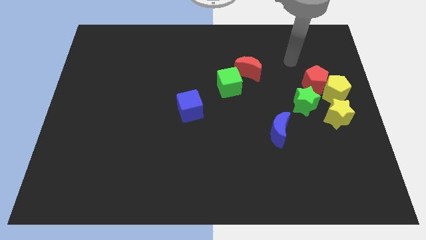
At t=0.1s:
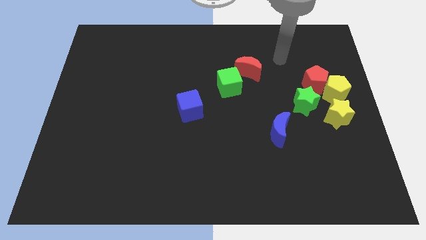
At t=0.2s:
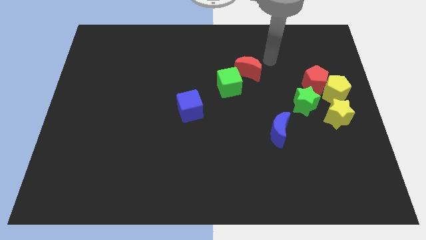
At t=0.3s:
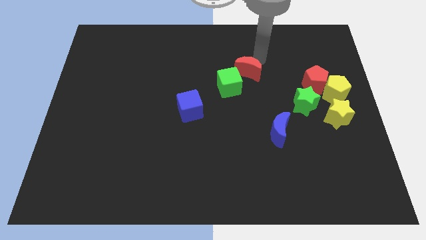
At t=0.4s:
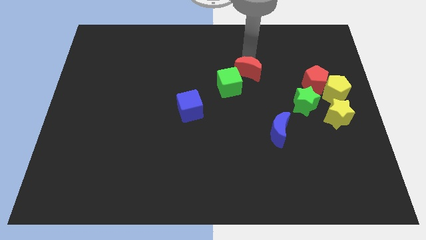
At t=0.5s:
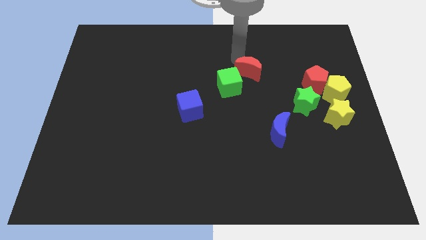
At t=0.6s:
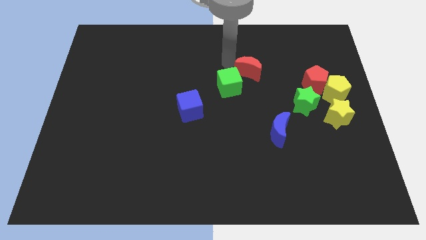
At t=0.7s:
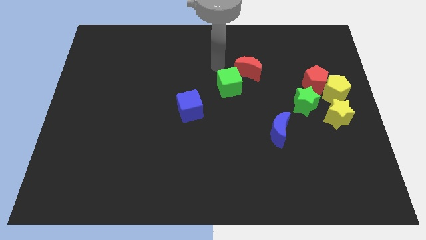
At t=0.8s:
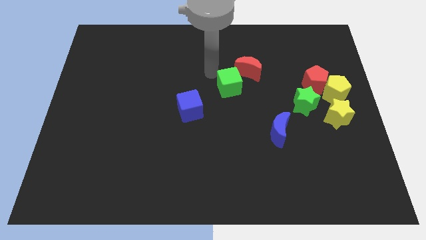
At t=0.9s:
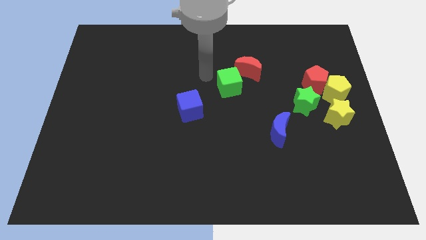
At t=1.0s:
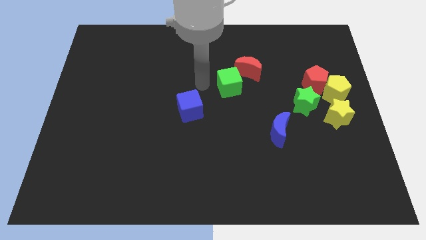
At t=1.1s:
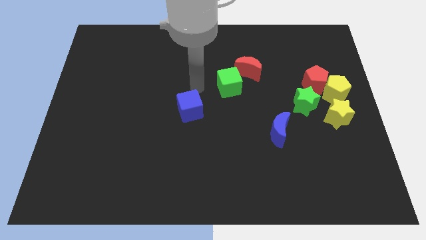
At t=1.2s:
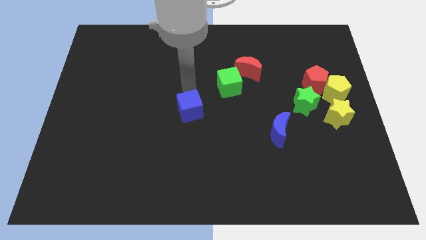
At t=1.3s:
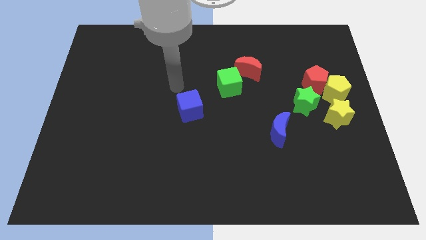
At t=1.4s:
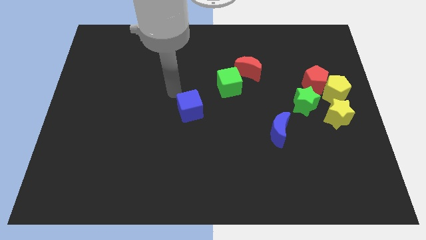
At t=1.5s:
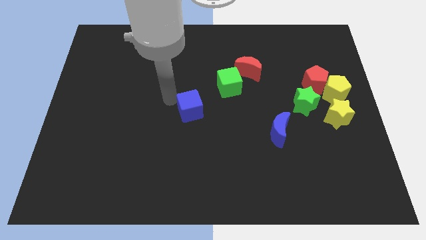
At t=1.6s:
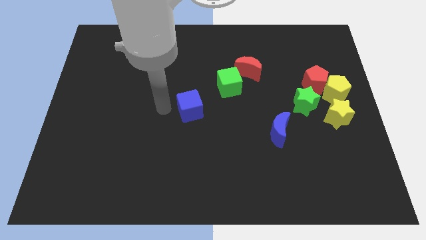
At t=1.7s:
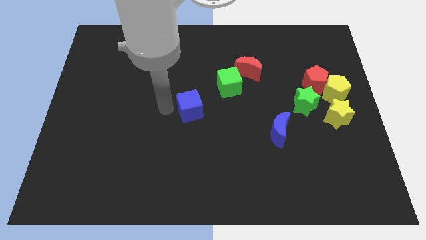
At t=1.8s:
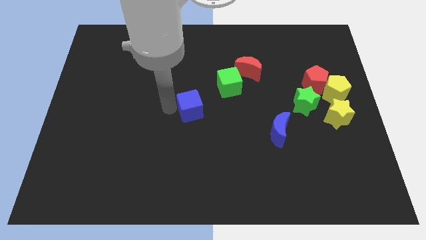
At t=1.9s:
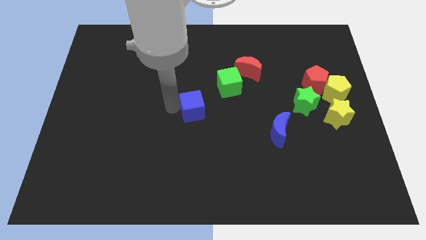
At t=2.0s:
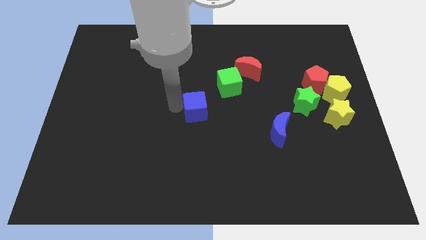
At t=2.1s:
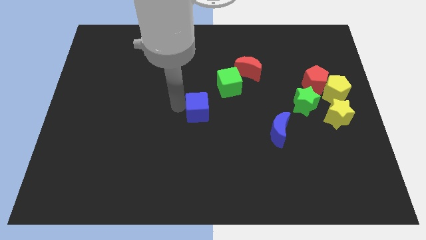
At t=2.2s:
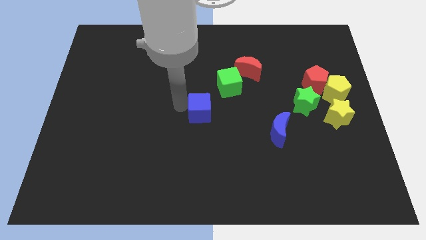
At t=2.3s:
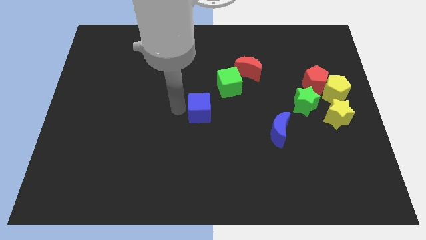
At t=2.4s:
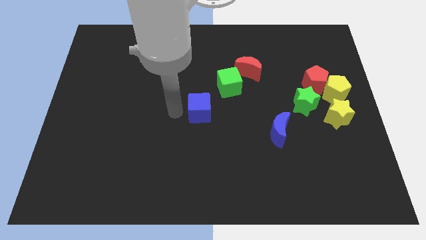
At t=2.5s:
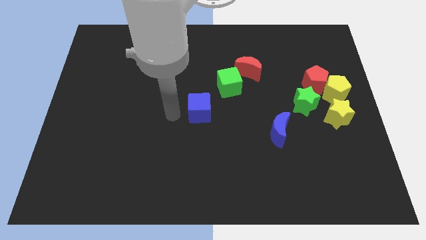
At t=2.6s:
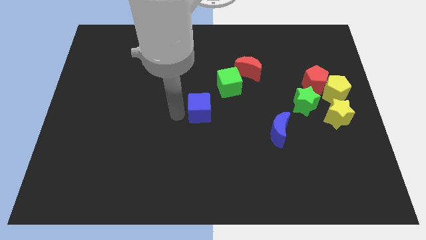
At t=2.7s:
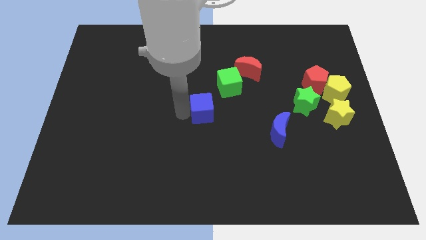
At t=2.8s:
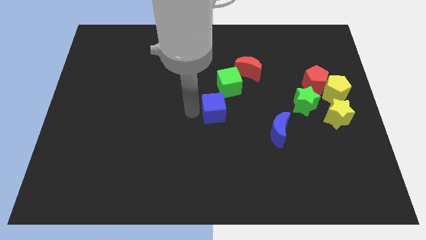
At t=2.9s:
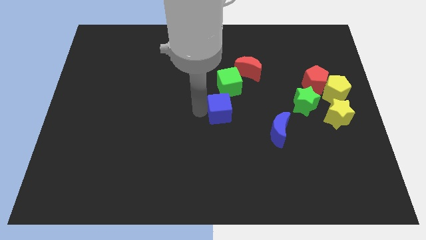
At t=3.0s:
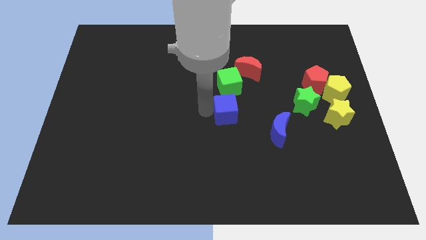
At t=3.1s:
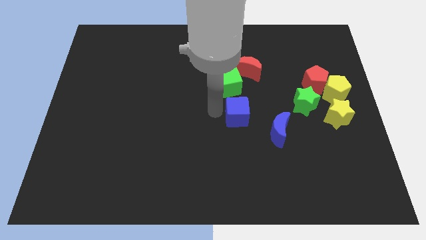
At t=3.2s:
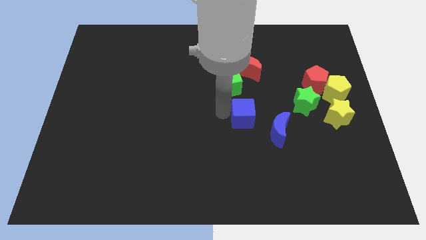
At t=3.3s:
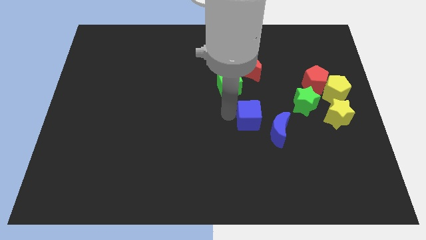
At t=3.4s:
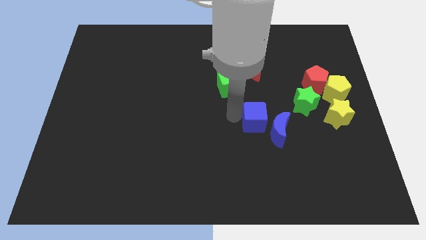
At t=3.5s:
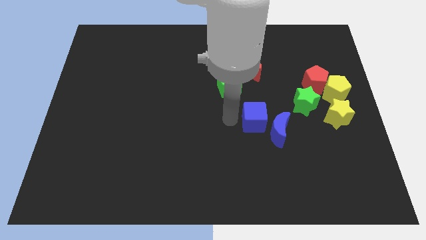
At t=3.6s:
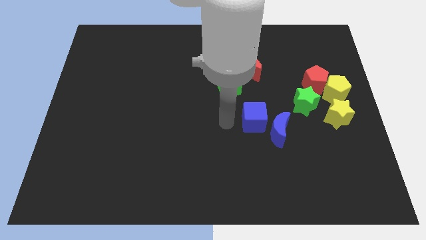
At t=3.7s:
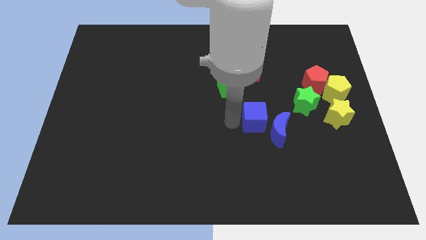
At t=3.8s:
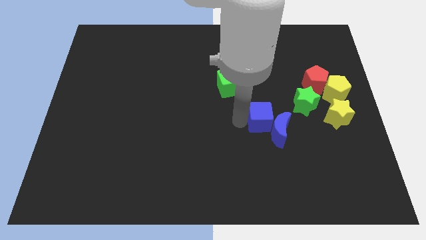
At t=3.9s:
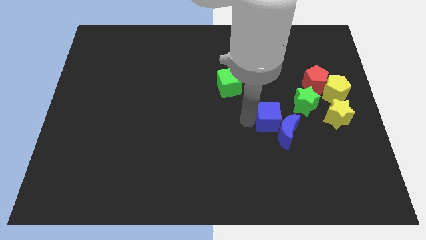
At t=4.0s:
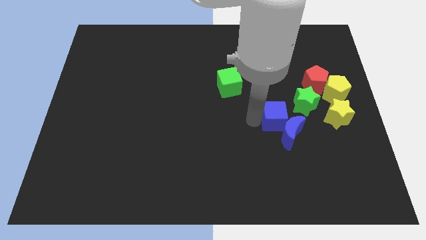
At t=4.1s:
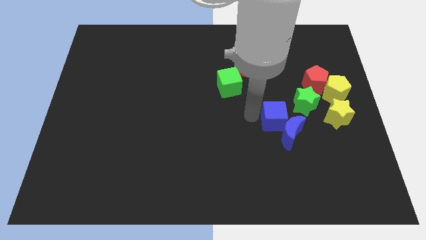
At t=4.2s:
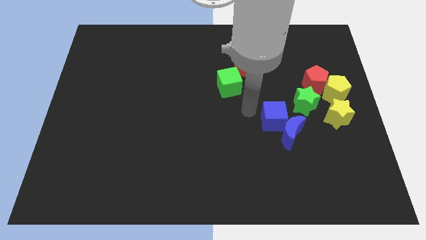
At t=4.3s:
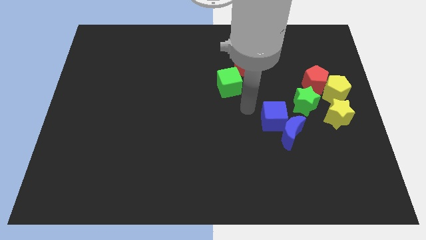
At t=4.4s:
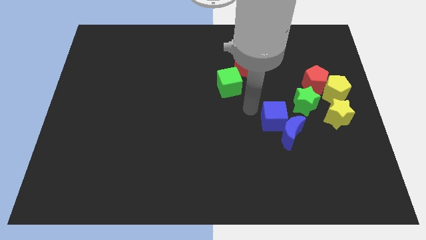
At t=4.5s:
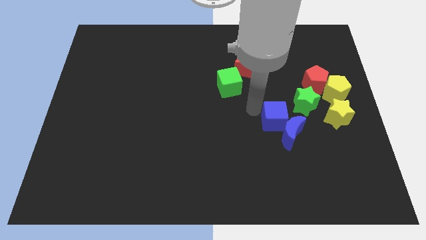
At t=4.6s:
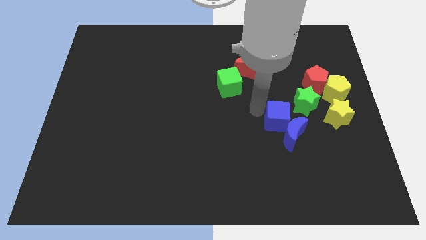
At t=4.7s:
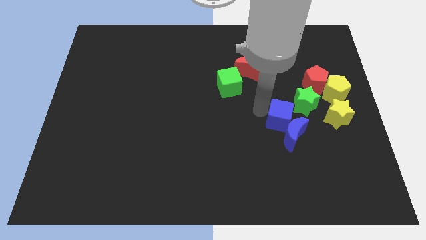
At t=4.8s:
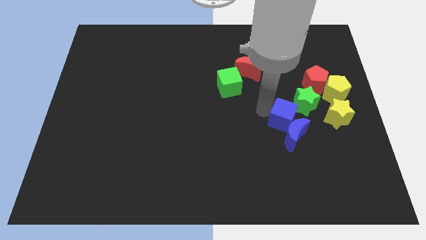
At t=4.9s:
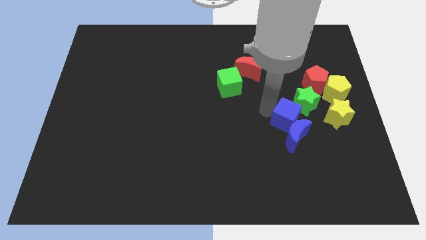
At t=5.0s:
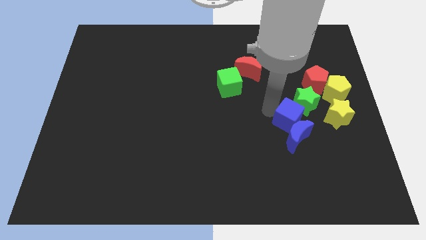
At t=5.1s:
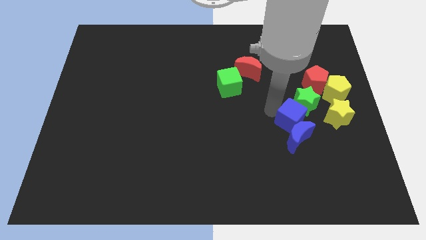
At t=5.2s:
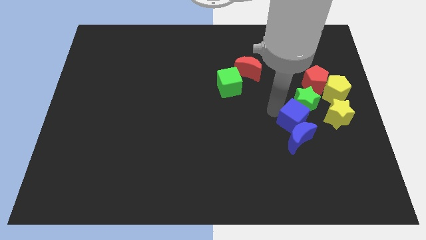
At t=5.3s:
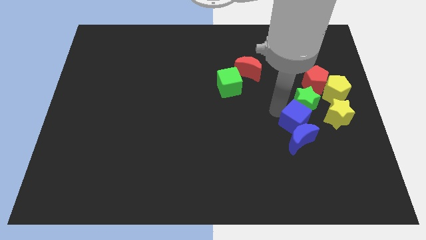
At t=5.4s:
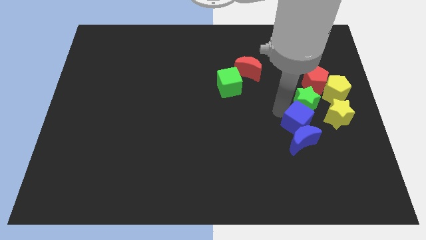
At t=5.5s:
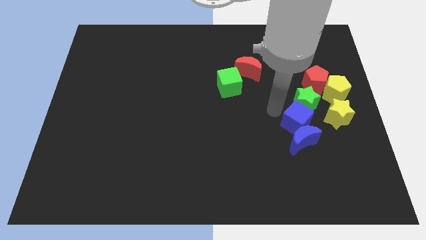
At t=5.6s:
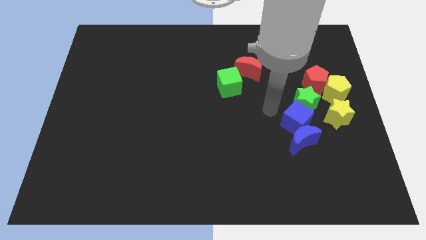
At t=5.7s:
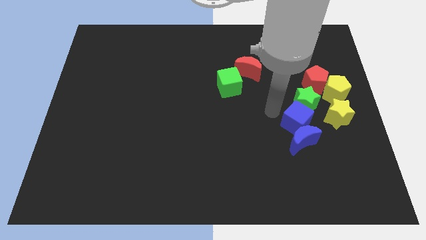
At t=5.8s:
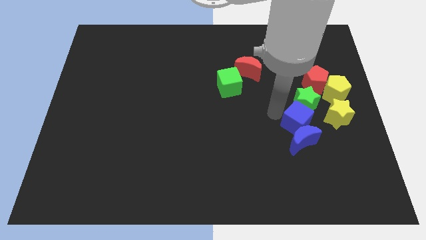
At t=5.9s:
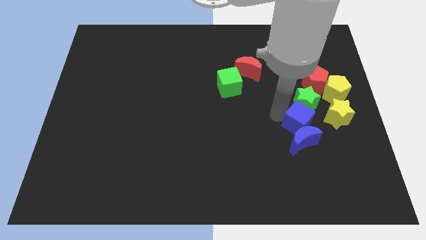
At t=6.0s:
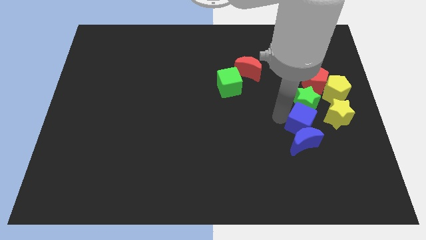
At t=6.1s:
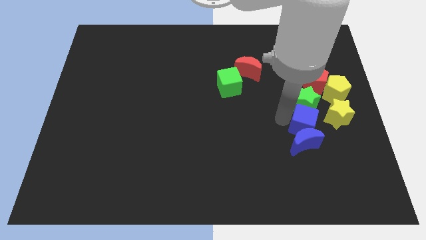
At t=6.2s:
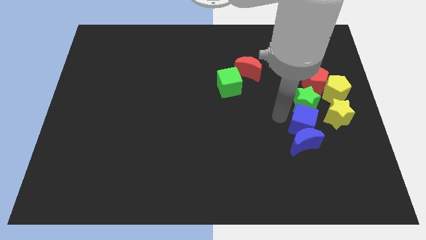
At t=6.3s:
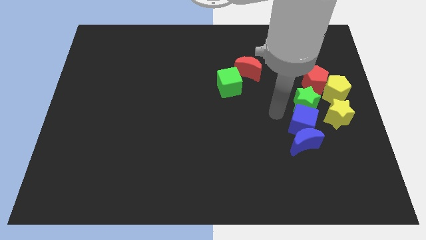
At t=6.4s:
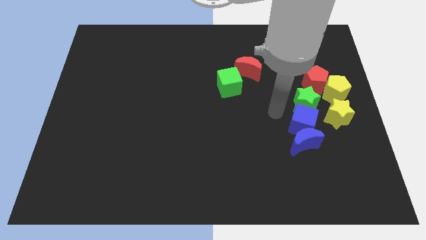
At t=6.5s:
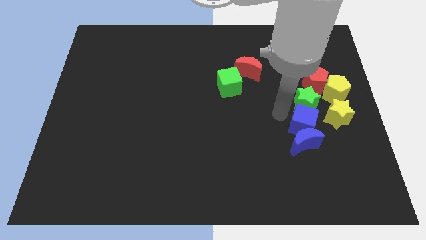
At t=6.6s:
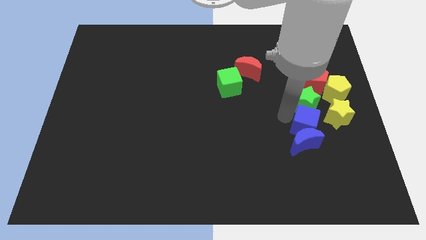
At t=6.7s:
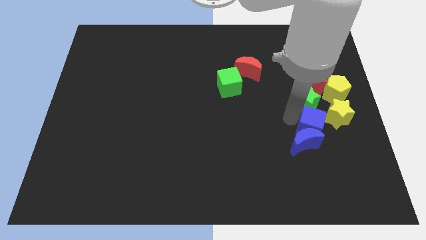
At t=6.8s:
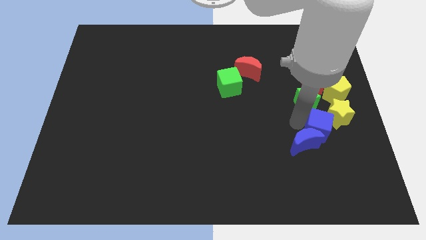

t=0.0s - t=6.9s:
push the blue cube close to the yellow star

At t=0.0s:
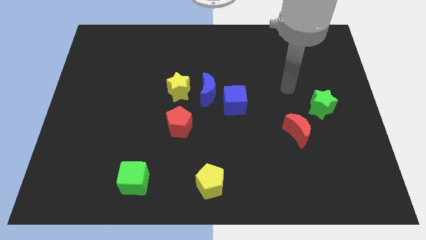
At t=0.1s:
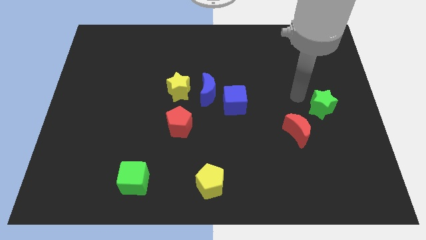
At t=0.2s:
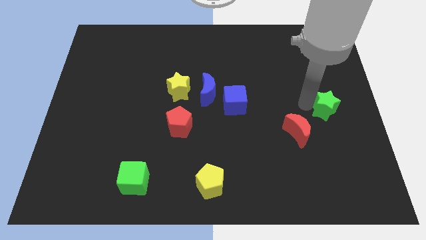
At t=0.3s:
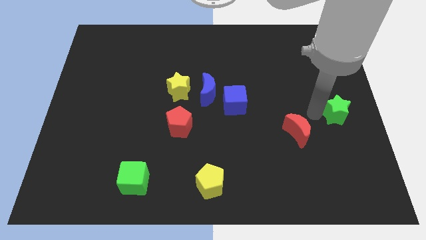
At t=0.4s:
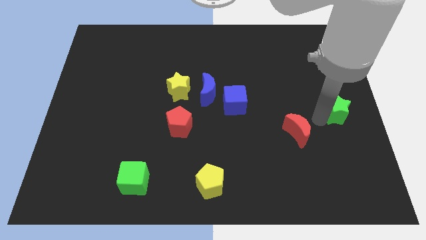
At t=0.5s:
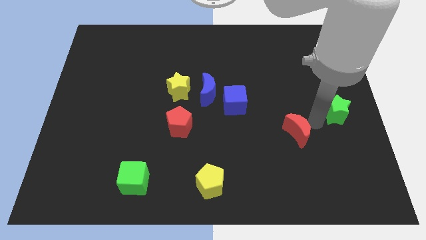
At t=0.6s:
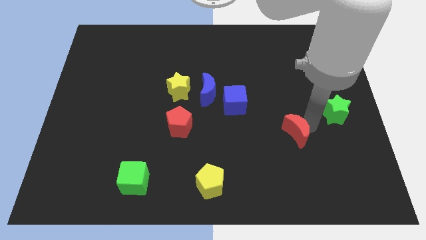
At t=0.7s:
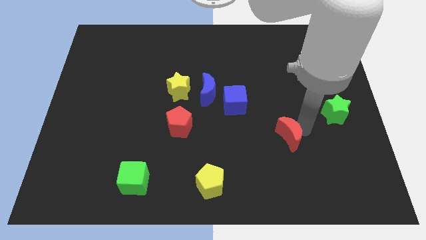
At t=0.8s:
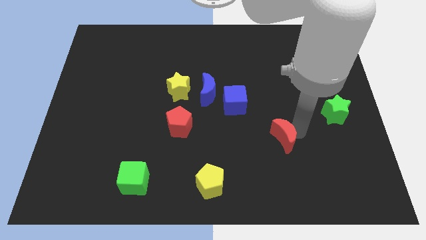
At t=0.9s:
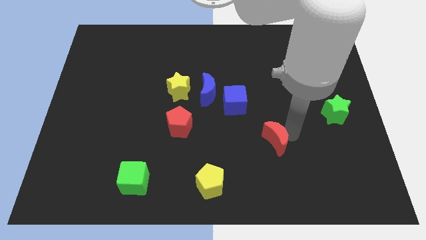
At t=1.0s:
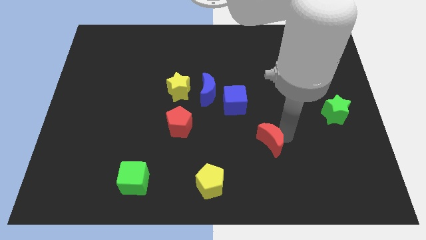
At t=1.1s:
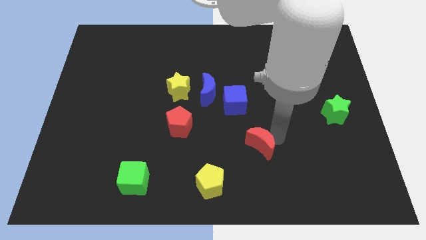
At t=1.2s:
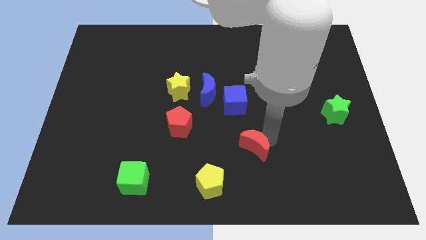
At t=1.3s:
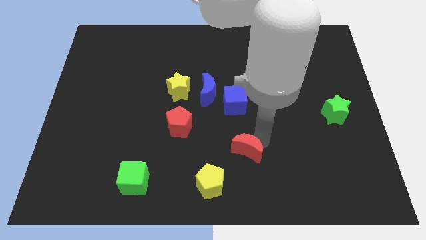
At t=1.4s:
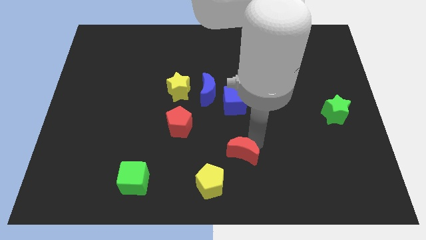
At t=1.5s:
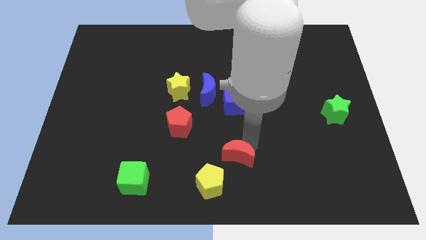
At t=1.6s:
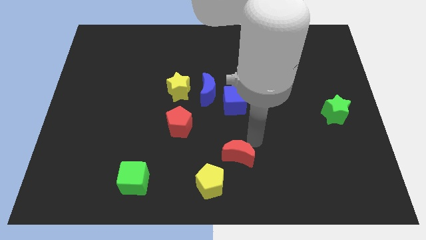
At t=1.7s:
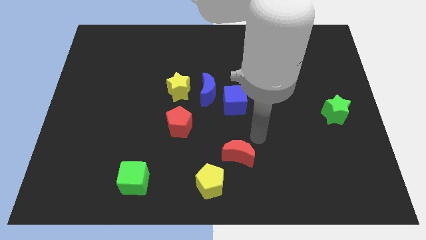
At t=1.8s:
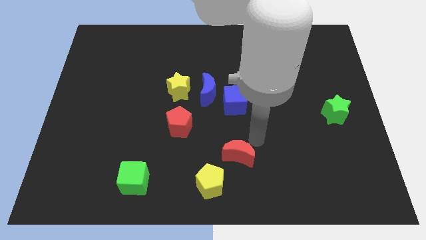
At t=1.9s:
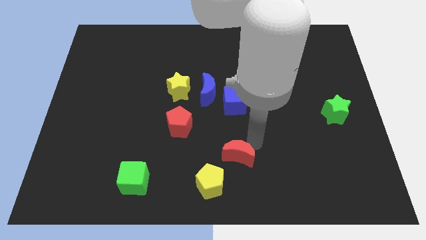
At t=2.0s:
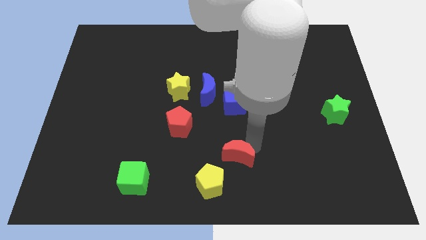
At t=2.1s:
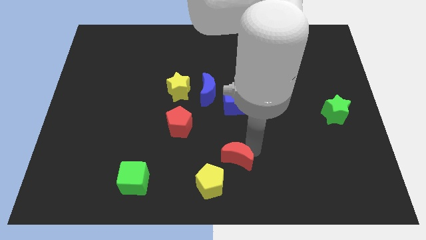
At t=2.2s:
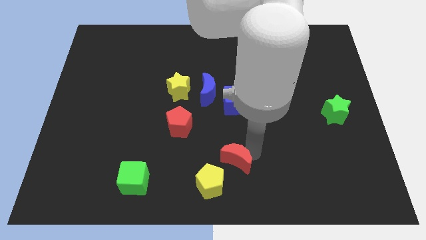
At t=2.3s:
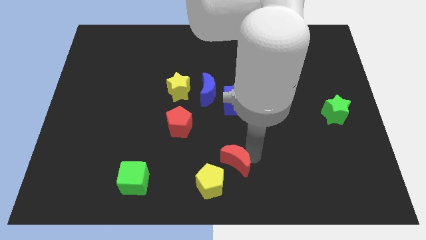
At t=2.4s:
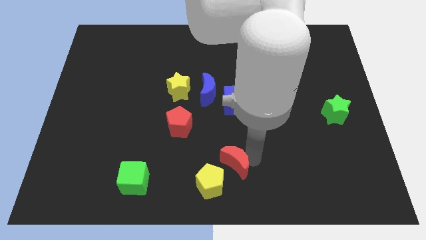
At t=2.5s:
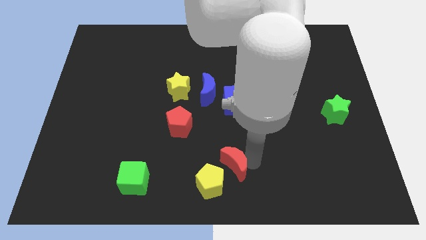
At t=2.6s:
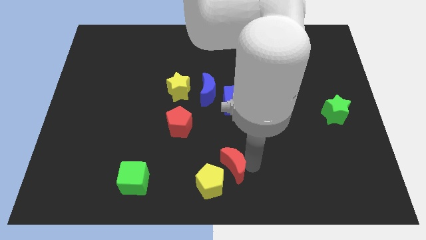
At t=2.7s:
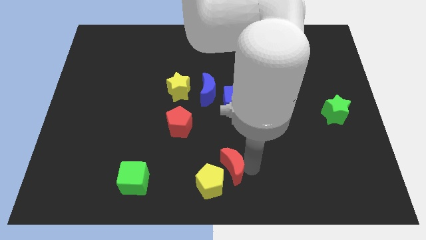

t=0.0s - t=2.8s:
slide the red moon close to the yellow pentagon
